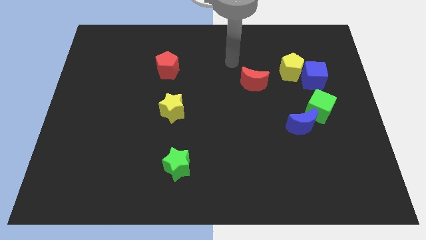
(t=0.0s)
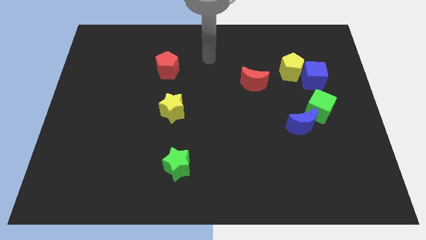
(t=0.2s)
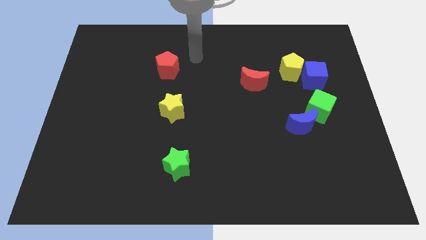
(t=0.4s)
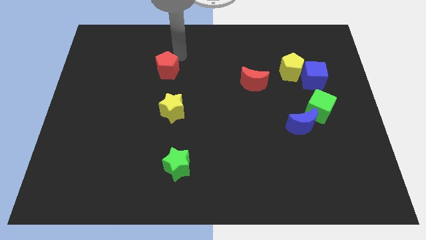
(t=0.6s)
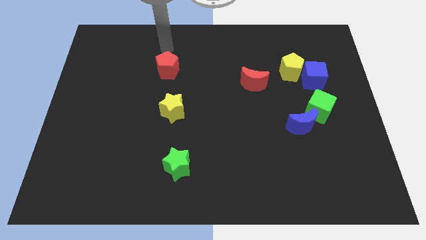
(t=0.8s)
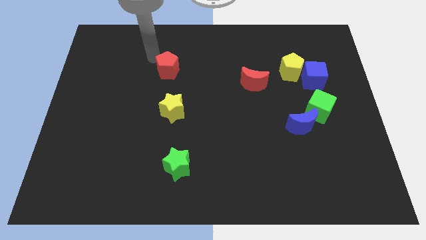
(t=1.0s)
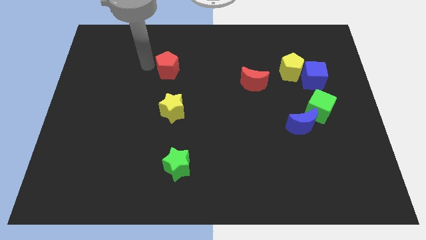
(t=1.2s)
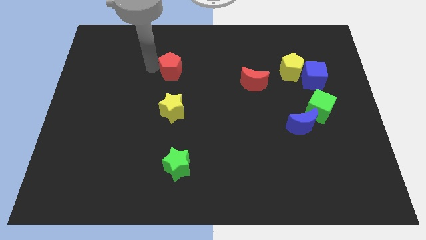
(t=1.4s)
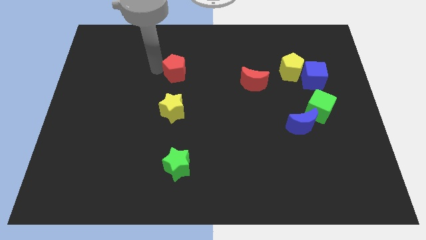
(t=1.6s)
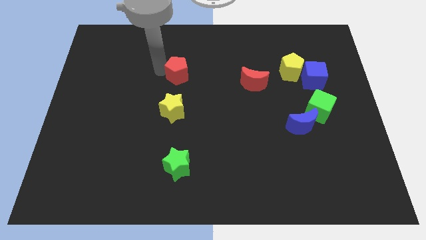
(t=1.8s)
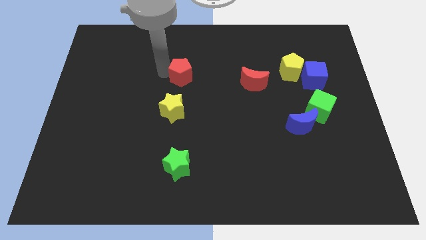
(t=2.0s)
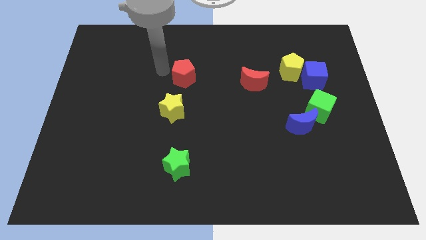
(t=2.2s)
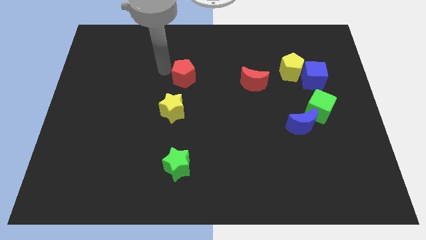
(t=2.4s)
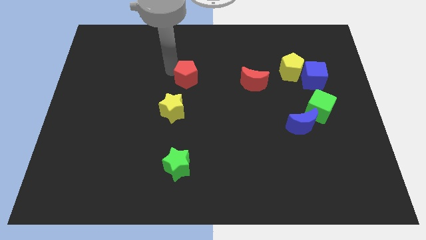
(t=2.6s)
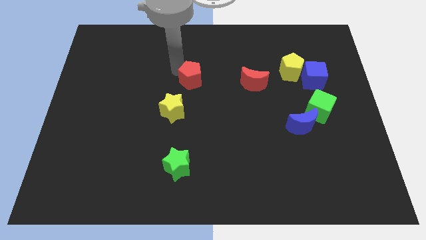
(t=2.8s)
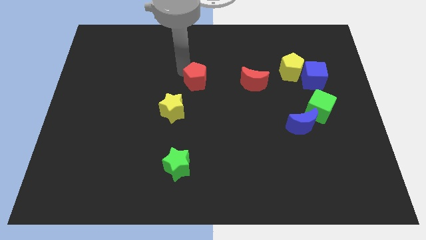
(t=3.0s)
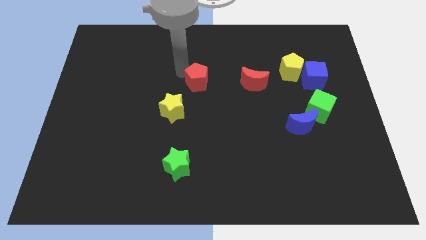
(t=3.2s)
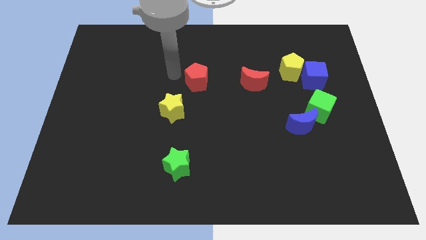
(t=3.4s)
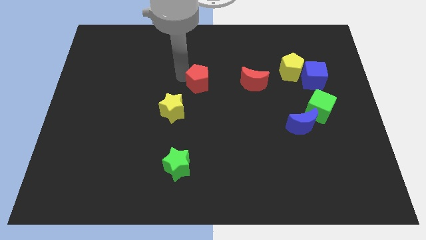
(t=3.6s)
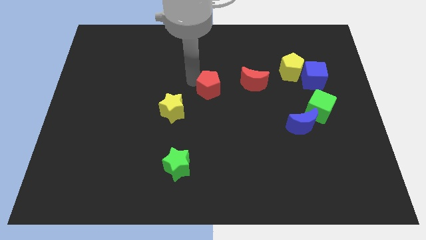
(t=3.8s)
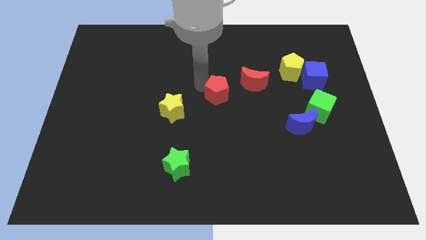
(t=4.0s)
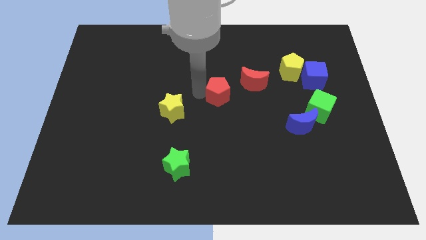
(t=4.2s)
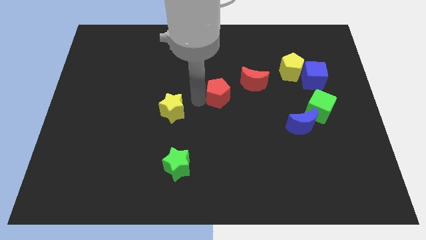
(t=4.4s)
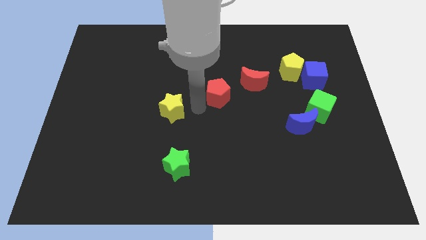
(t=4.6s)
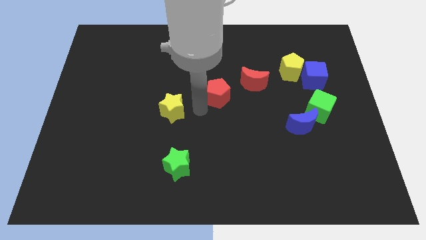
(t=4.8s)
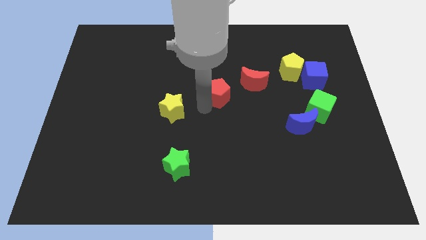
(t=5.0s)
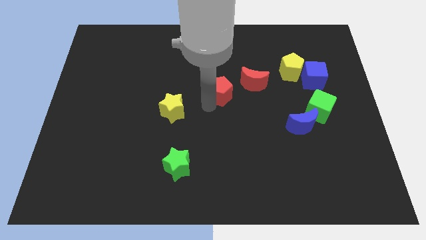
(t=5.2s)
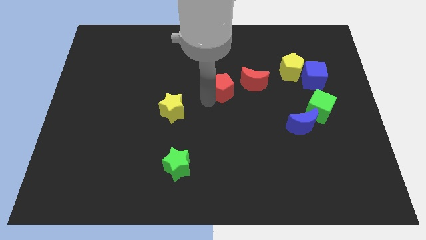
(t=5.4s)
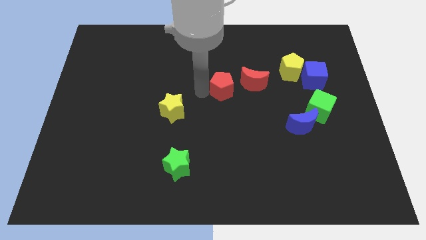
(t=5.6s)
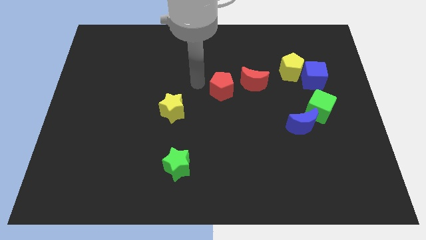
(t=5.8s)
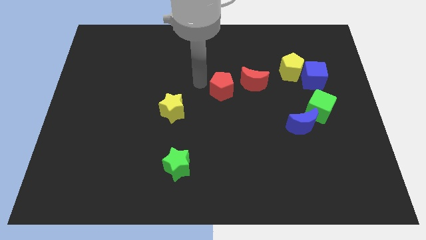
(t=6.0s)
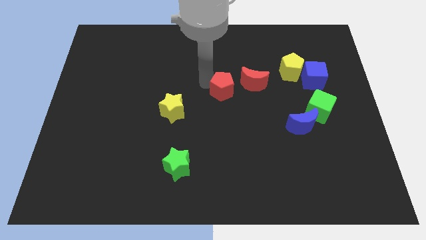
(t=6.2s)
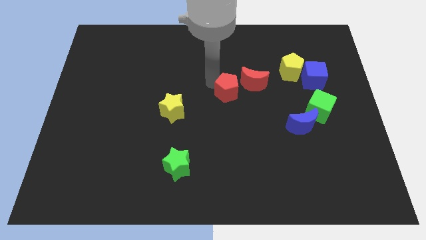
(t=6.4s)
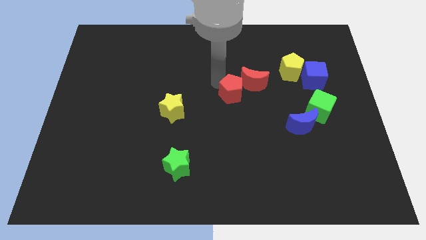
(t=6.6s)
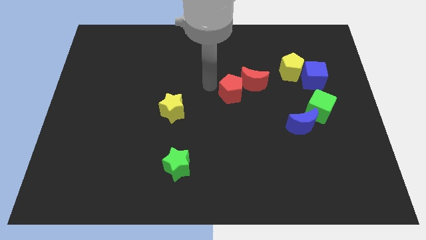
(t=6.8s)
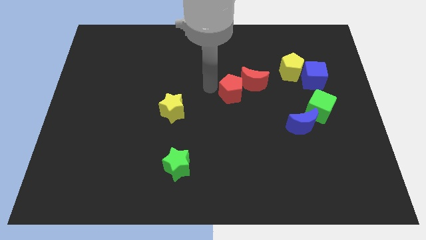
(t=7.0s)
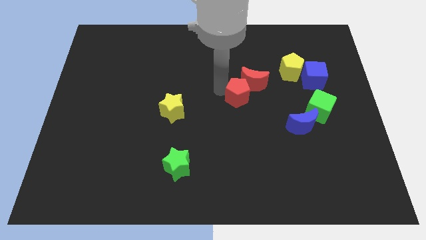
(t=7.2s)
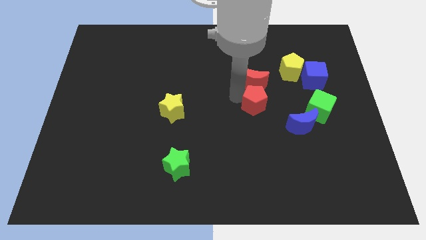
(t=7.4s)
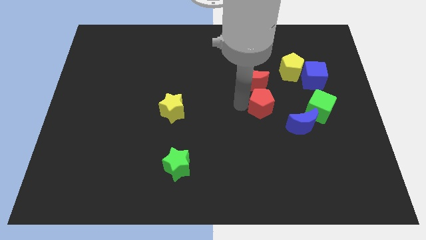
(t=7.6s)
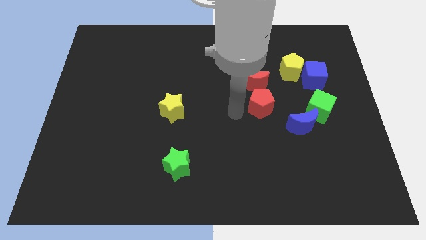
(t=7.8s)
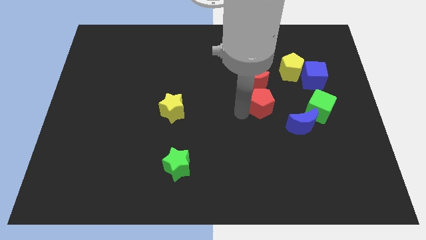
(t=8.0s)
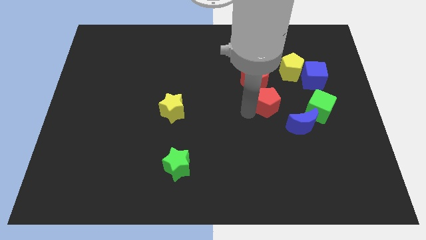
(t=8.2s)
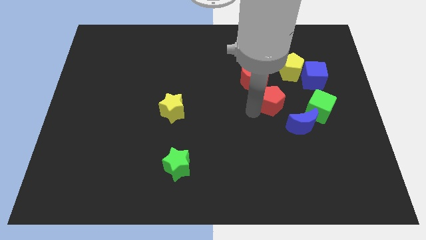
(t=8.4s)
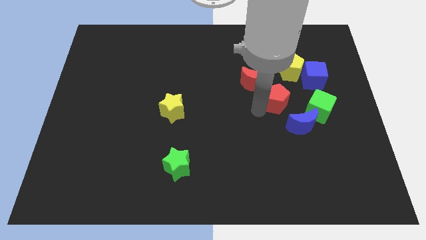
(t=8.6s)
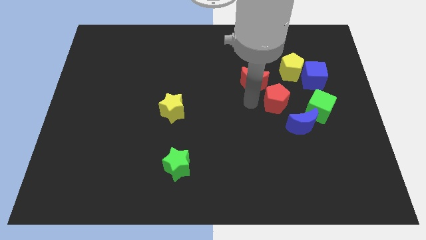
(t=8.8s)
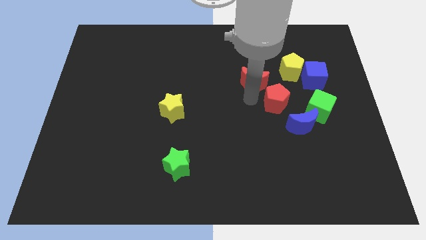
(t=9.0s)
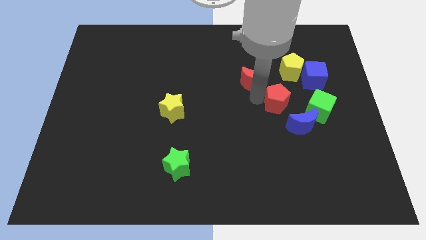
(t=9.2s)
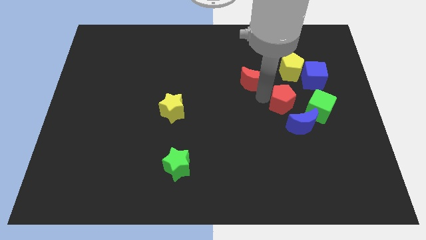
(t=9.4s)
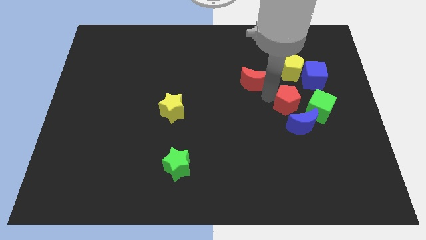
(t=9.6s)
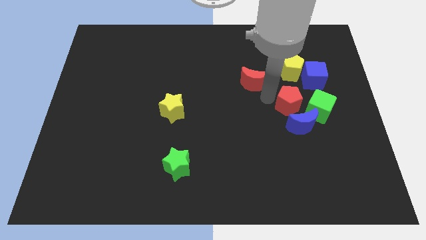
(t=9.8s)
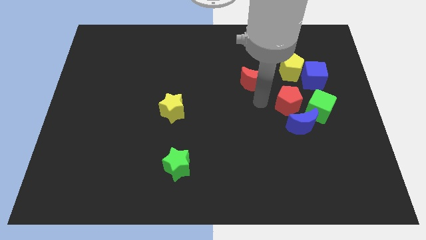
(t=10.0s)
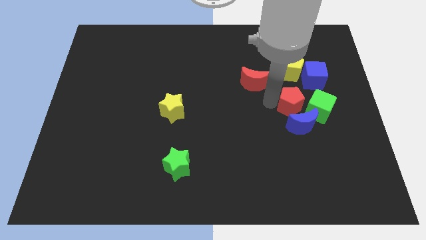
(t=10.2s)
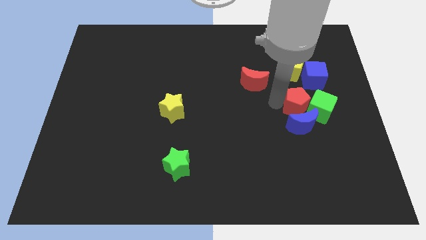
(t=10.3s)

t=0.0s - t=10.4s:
push the red pentagon next to the green cube

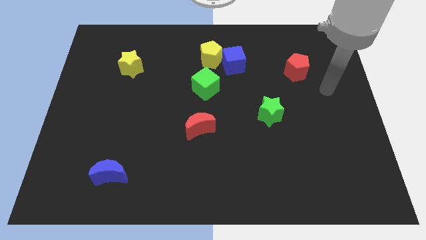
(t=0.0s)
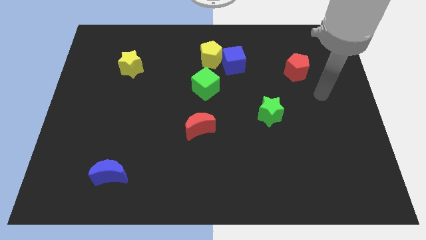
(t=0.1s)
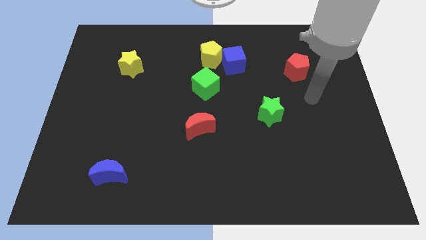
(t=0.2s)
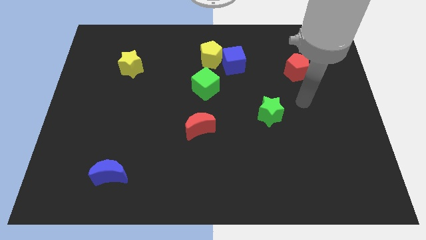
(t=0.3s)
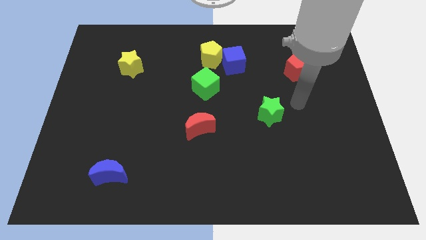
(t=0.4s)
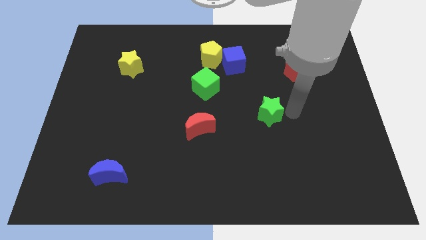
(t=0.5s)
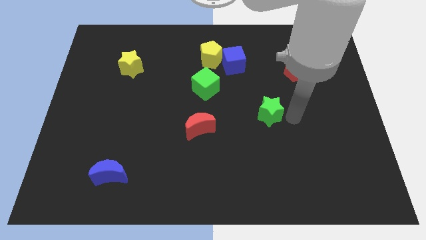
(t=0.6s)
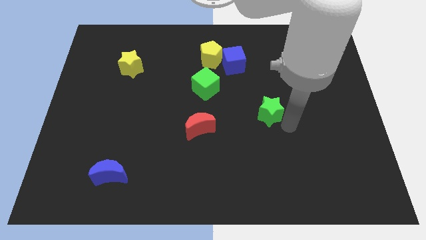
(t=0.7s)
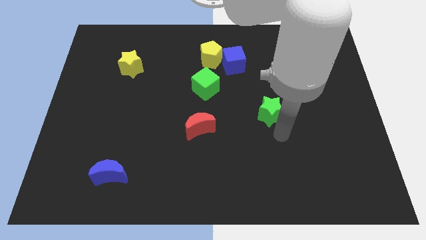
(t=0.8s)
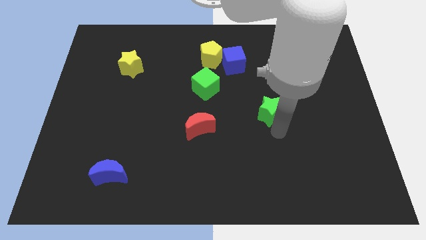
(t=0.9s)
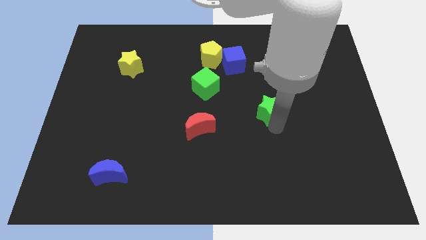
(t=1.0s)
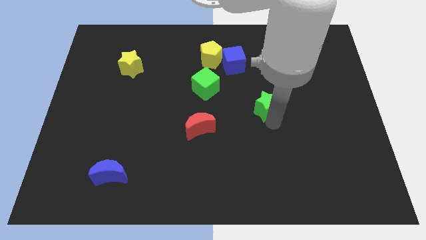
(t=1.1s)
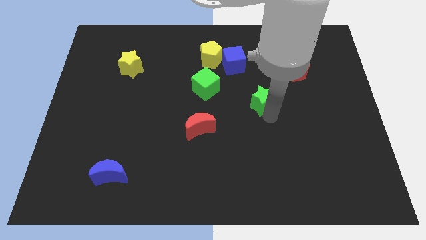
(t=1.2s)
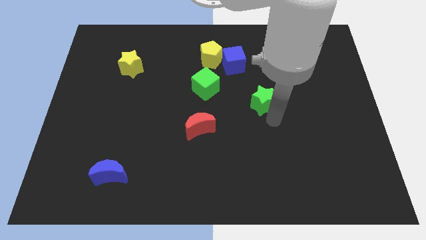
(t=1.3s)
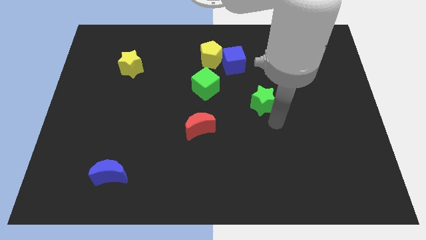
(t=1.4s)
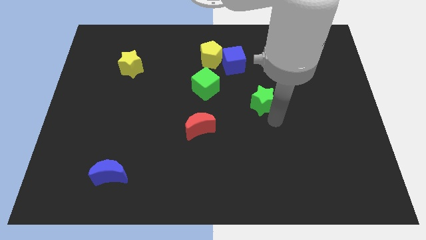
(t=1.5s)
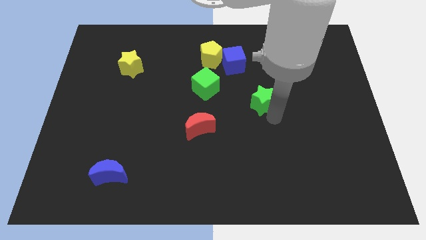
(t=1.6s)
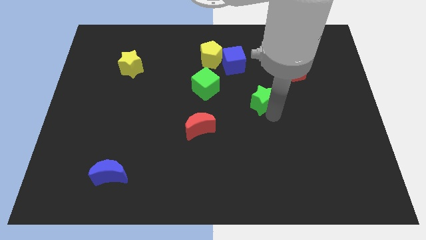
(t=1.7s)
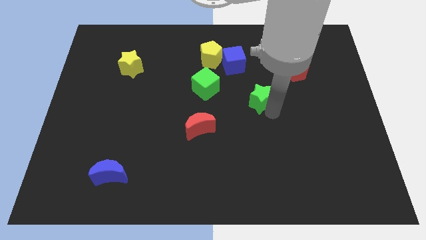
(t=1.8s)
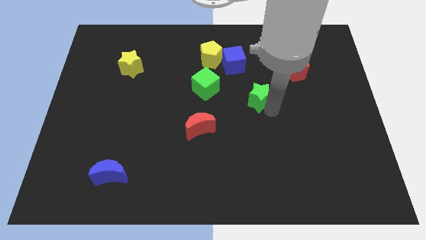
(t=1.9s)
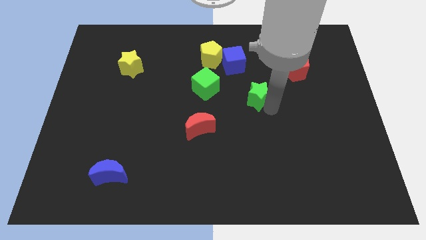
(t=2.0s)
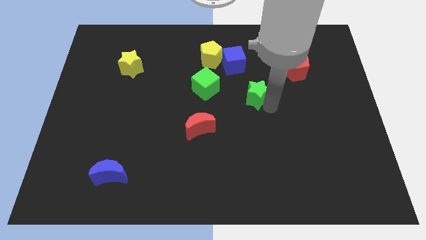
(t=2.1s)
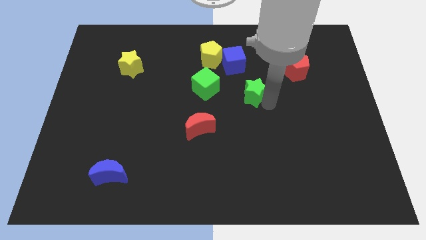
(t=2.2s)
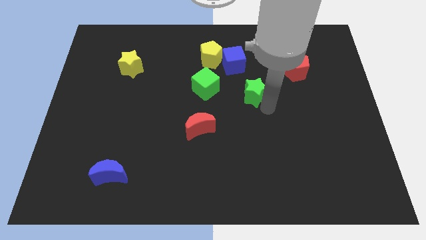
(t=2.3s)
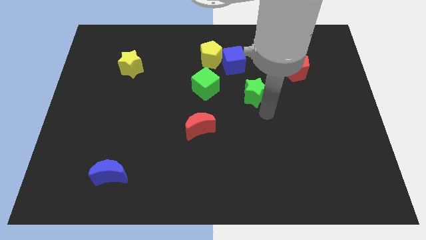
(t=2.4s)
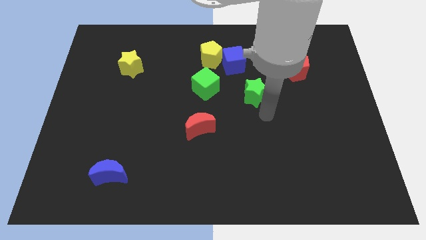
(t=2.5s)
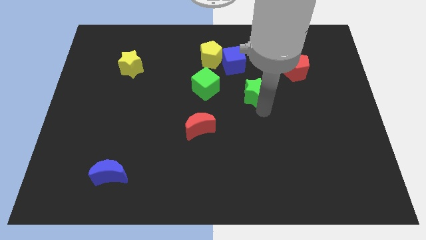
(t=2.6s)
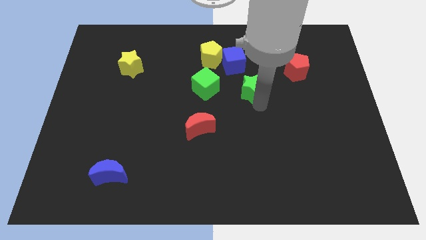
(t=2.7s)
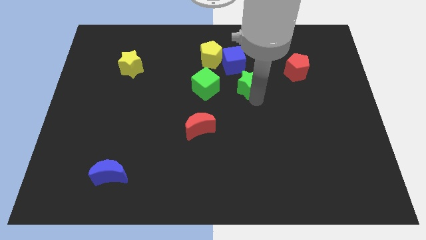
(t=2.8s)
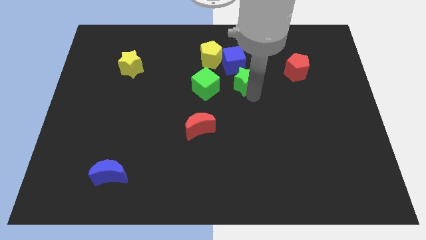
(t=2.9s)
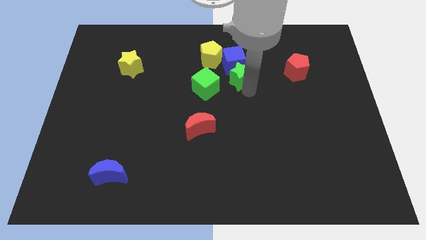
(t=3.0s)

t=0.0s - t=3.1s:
move the green star next to the blue cube
